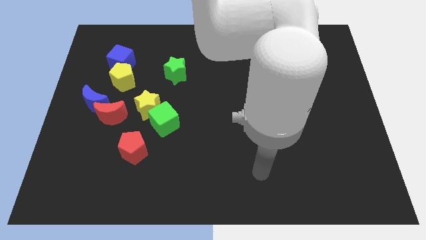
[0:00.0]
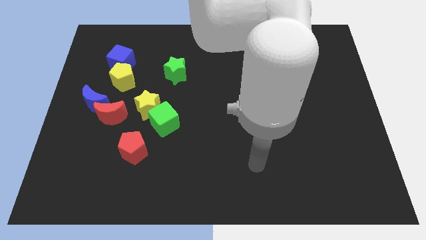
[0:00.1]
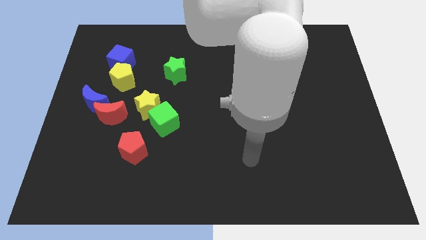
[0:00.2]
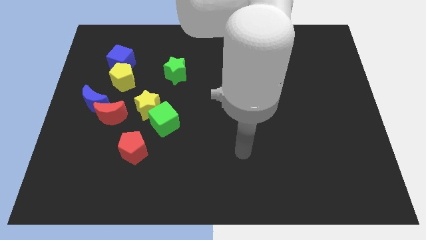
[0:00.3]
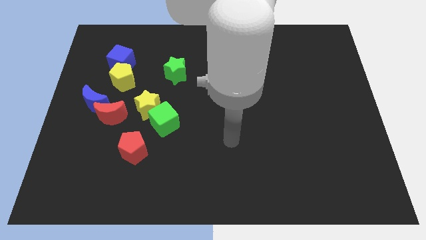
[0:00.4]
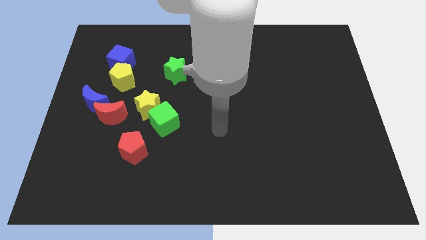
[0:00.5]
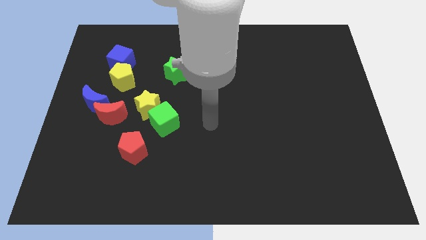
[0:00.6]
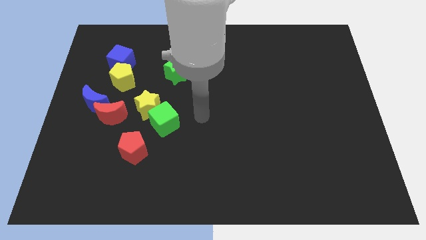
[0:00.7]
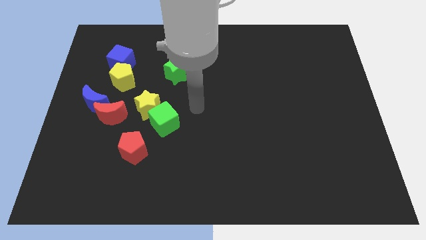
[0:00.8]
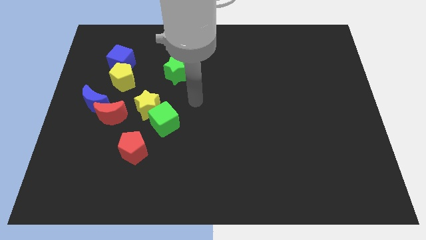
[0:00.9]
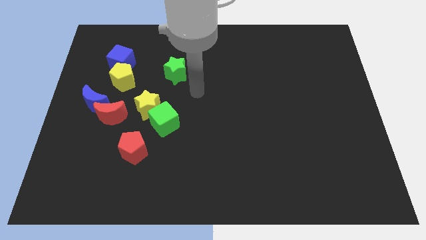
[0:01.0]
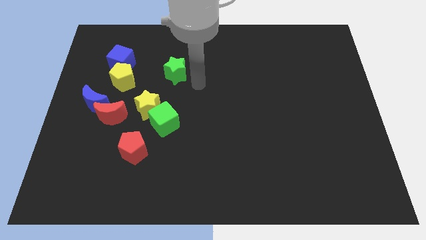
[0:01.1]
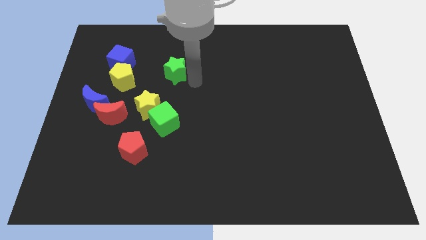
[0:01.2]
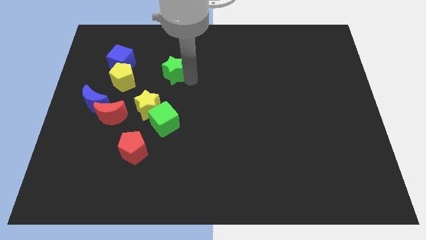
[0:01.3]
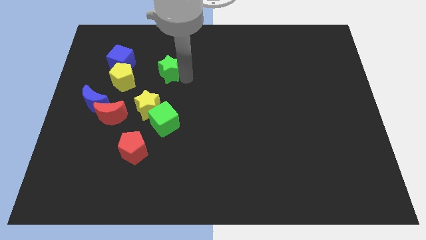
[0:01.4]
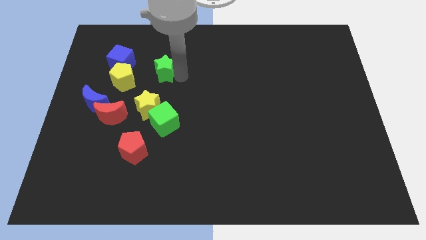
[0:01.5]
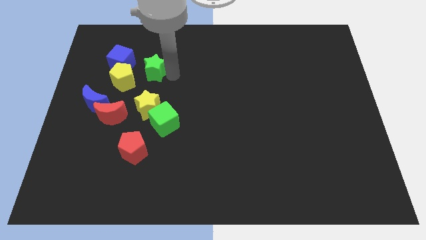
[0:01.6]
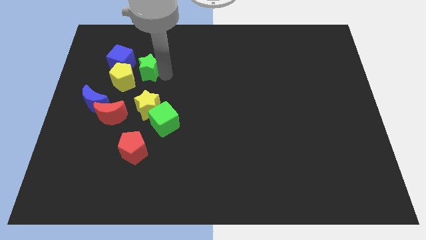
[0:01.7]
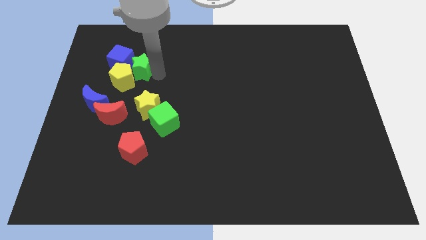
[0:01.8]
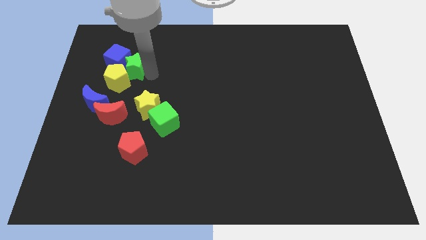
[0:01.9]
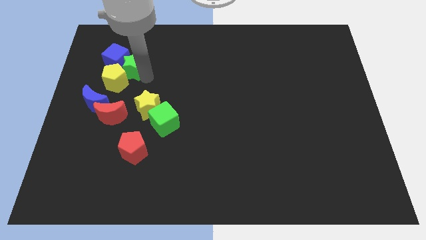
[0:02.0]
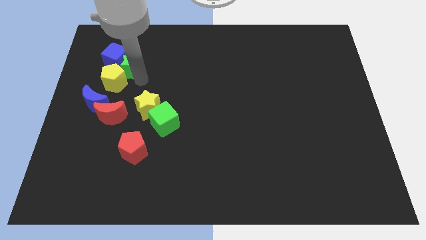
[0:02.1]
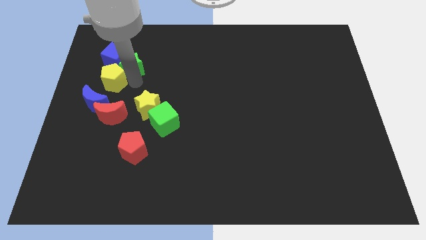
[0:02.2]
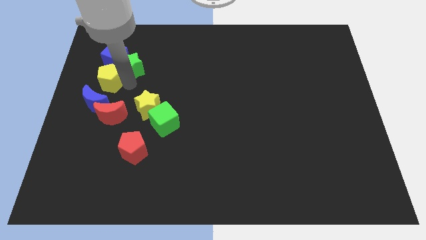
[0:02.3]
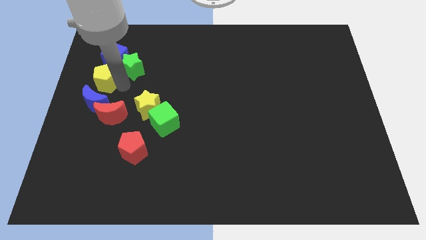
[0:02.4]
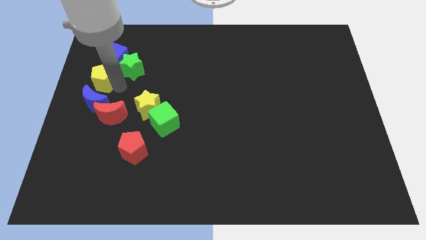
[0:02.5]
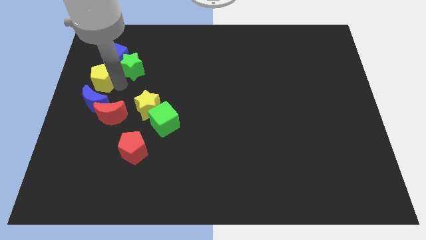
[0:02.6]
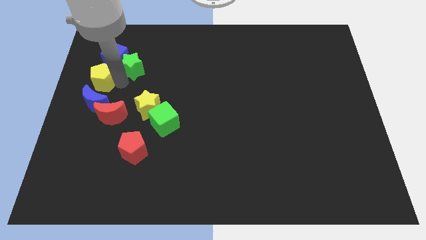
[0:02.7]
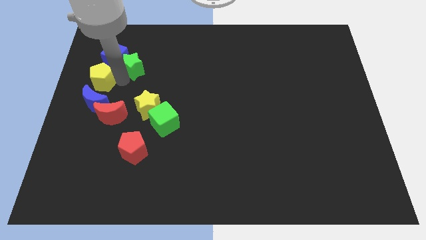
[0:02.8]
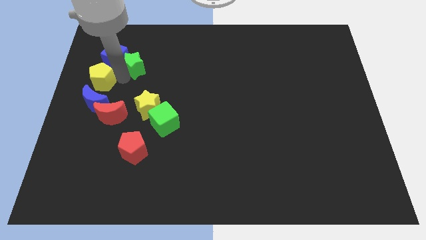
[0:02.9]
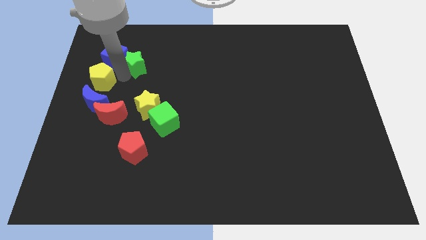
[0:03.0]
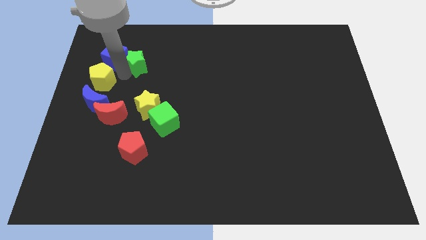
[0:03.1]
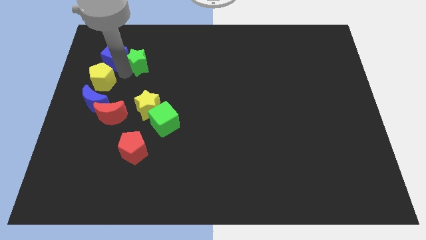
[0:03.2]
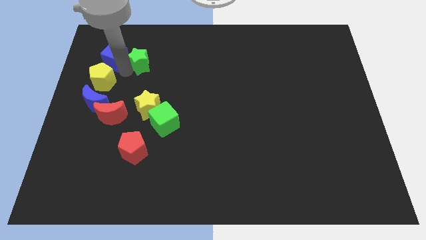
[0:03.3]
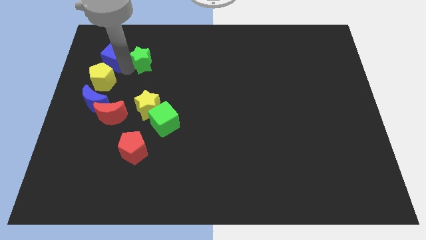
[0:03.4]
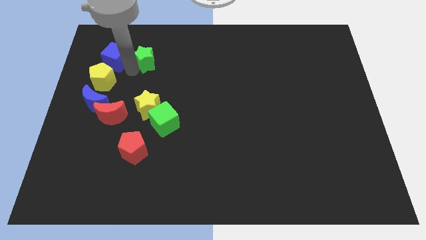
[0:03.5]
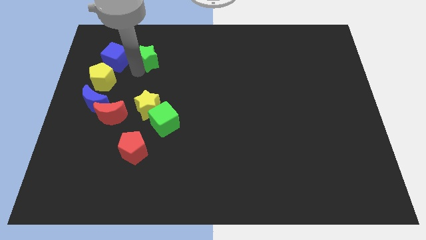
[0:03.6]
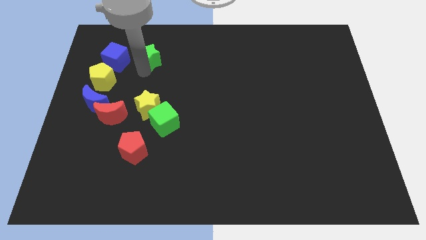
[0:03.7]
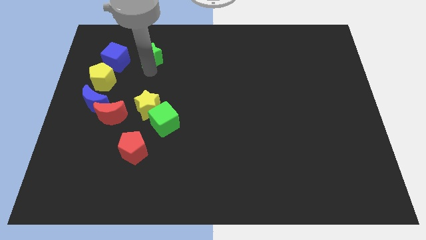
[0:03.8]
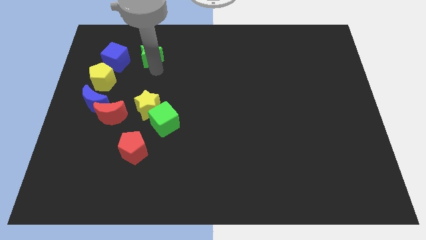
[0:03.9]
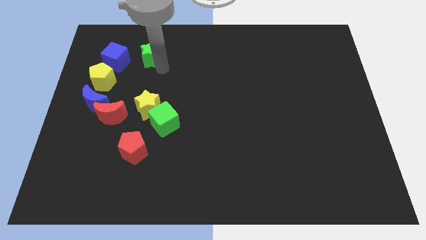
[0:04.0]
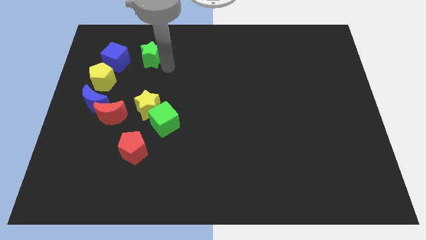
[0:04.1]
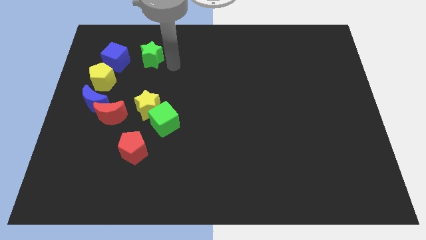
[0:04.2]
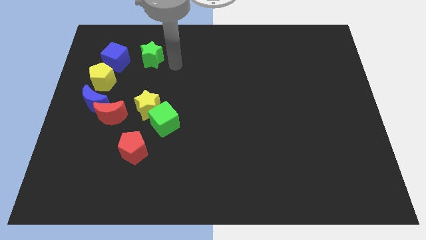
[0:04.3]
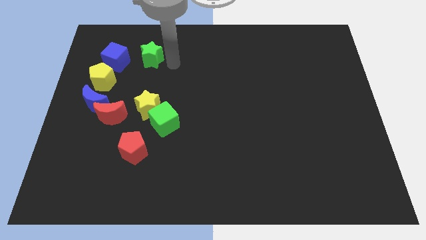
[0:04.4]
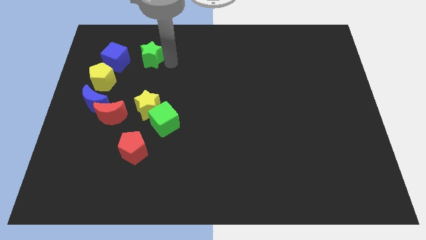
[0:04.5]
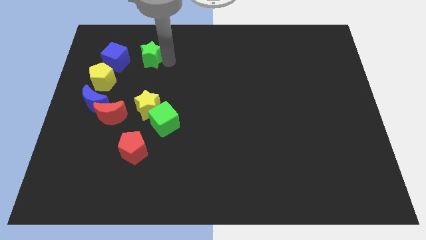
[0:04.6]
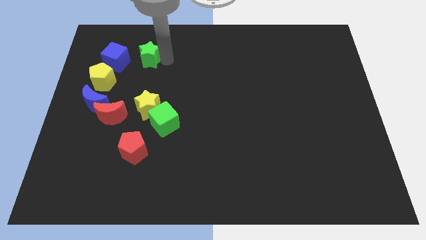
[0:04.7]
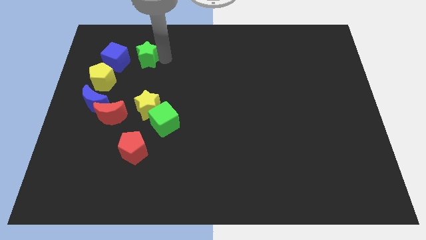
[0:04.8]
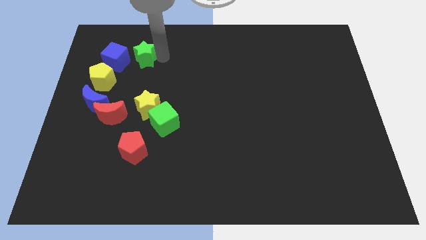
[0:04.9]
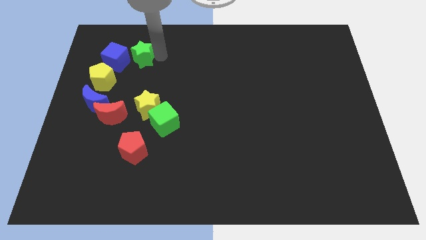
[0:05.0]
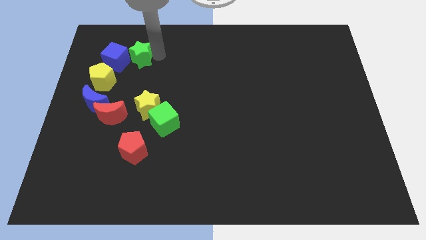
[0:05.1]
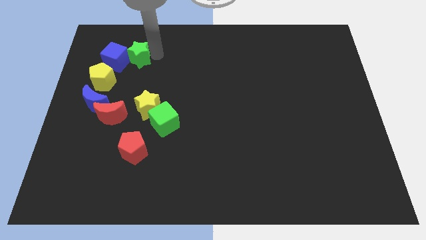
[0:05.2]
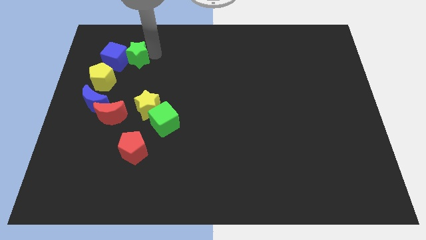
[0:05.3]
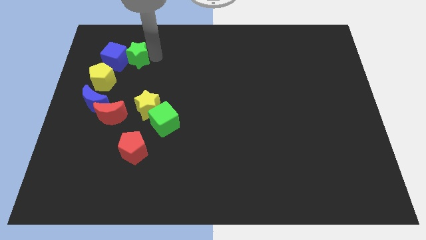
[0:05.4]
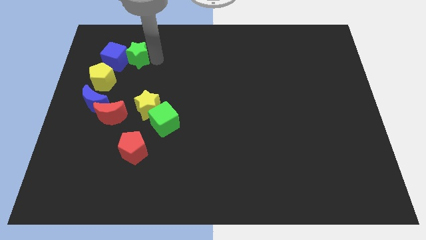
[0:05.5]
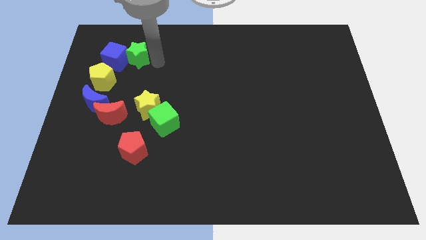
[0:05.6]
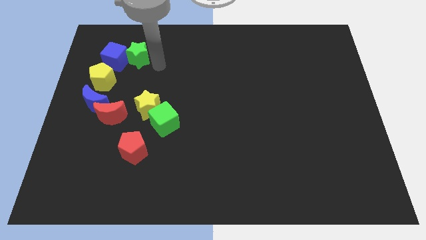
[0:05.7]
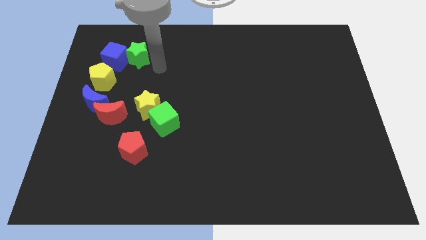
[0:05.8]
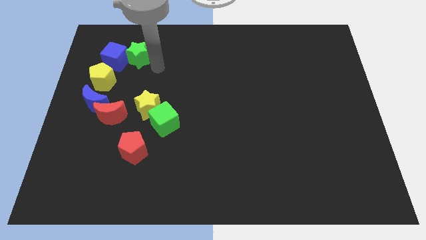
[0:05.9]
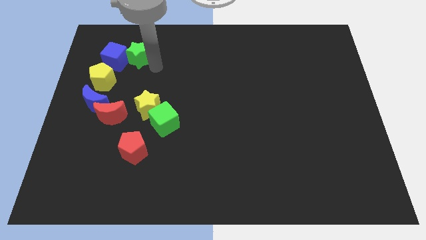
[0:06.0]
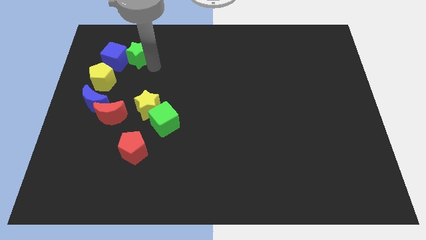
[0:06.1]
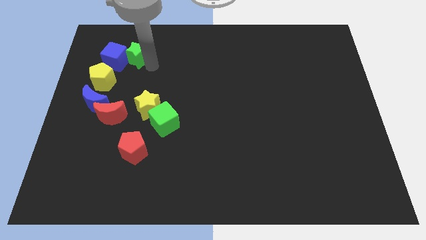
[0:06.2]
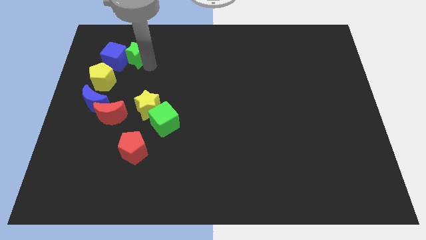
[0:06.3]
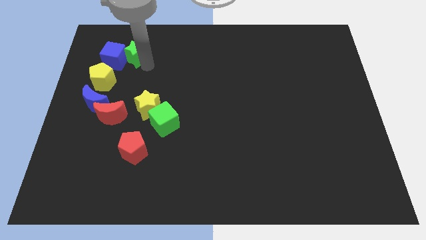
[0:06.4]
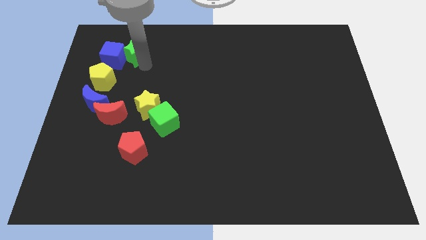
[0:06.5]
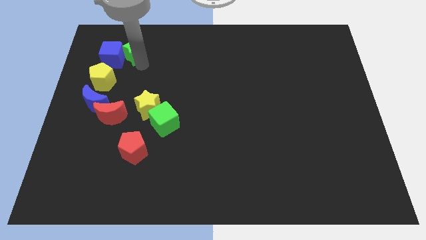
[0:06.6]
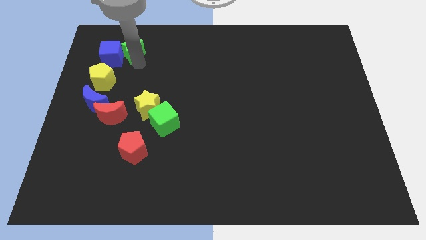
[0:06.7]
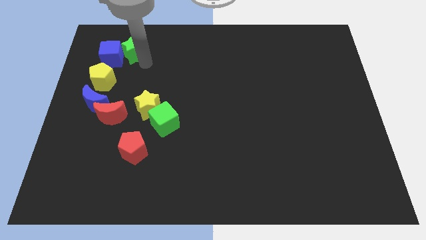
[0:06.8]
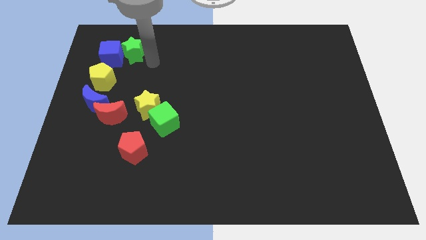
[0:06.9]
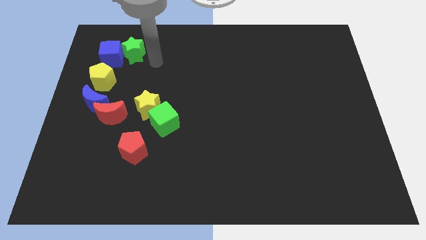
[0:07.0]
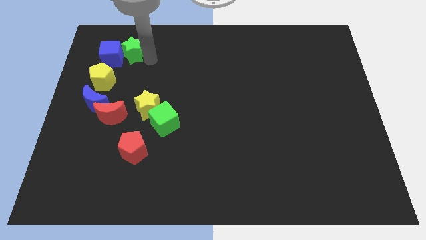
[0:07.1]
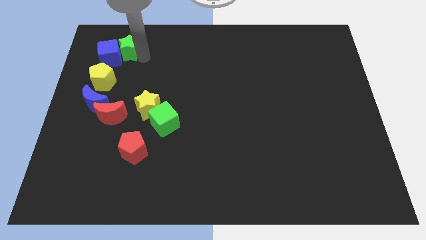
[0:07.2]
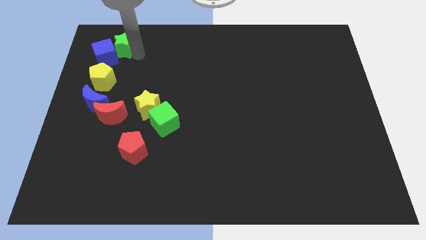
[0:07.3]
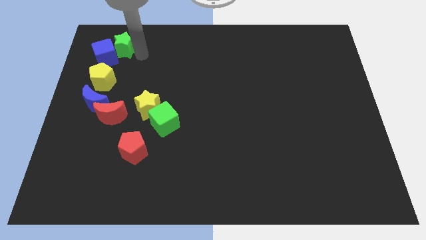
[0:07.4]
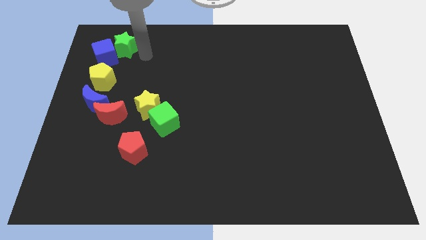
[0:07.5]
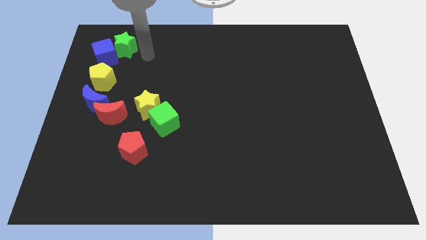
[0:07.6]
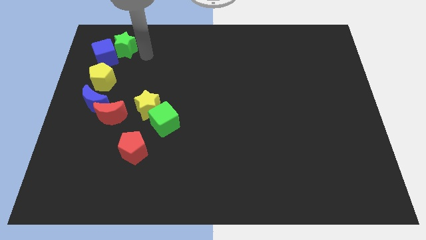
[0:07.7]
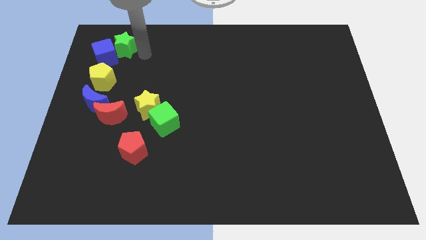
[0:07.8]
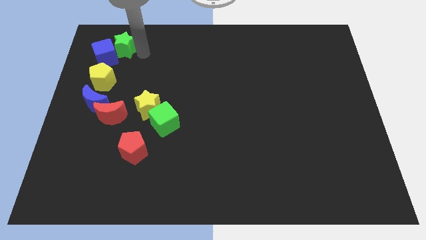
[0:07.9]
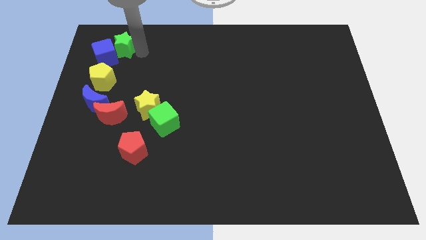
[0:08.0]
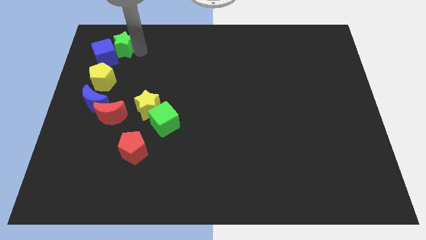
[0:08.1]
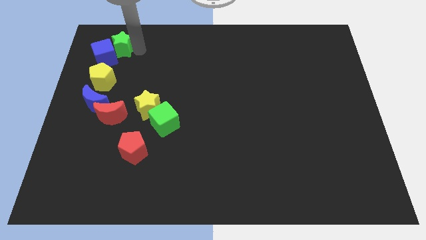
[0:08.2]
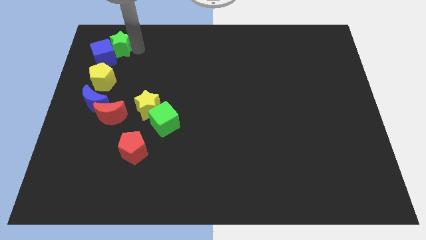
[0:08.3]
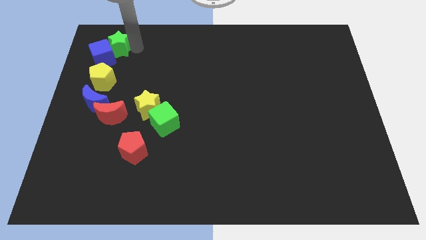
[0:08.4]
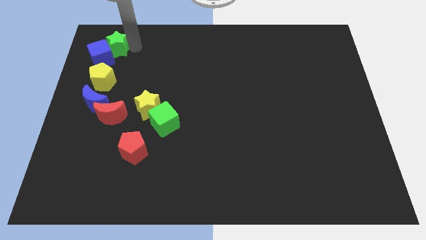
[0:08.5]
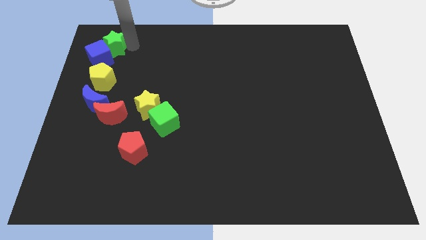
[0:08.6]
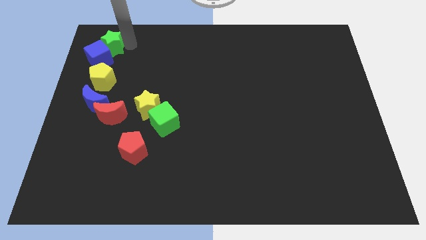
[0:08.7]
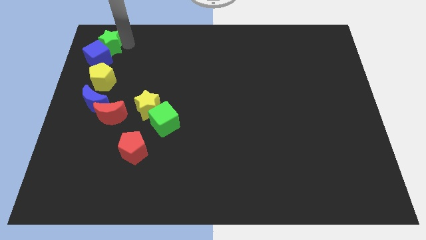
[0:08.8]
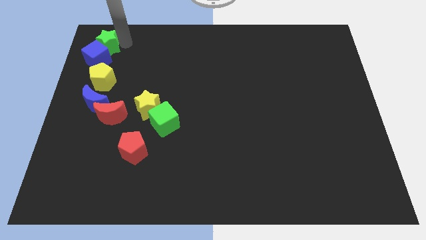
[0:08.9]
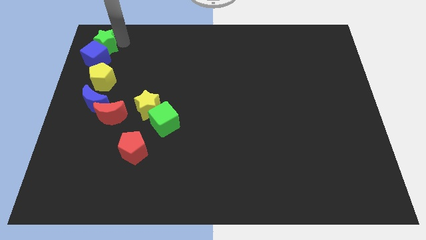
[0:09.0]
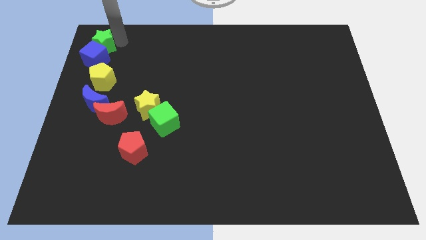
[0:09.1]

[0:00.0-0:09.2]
put the green star to the top left of the board
